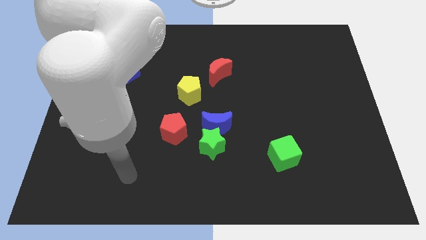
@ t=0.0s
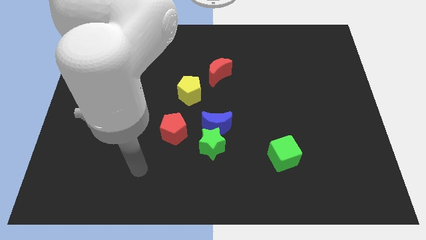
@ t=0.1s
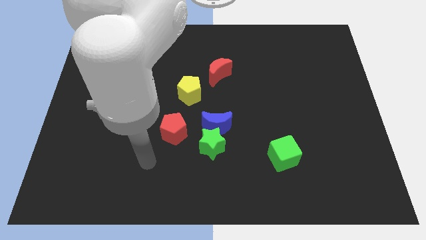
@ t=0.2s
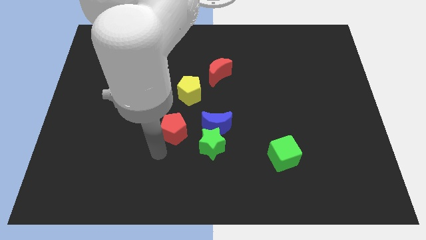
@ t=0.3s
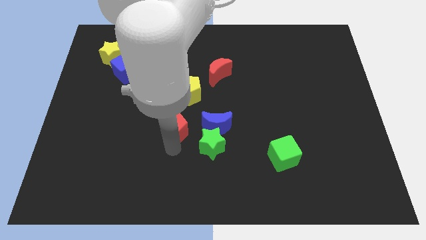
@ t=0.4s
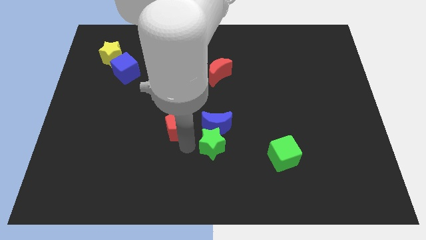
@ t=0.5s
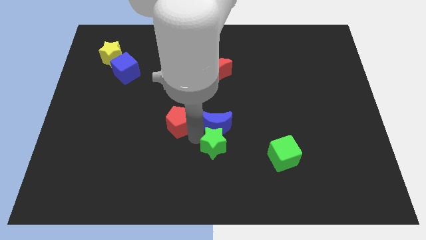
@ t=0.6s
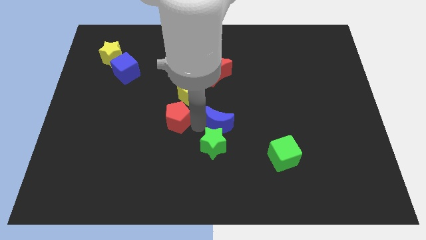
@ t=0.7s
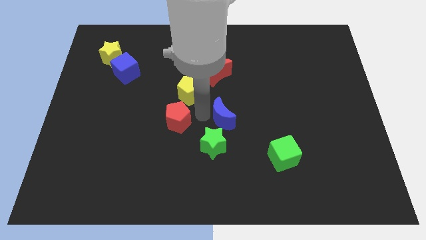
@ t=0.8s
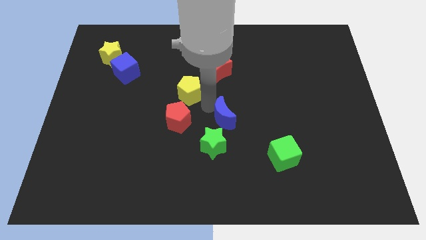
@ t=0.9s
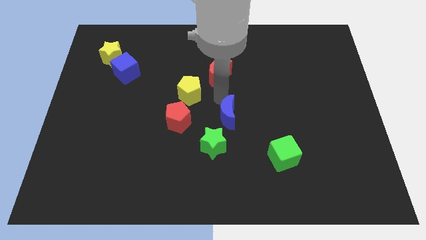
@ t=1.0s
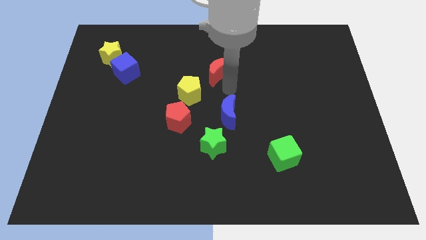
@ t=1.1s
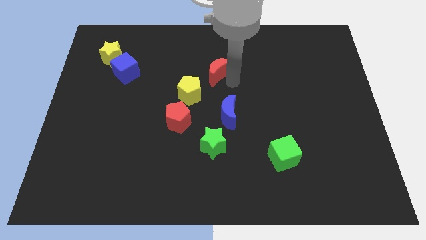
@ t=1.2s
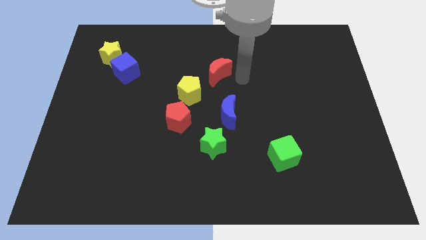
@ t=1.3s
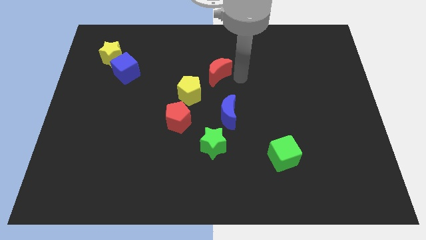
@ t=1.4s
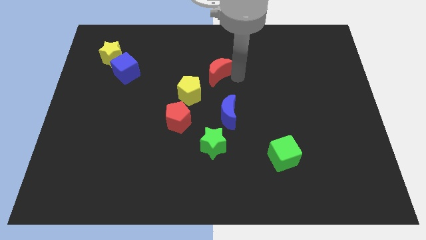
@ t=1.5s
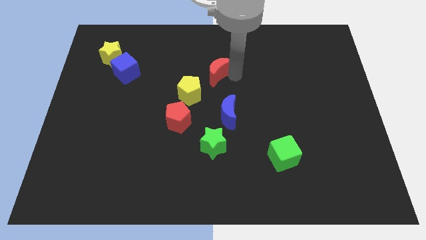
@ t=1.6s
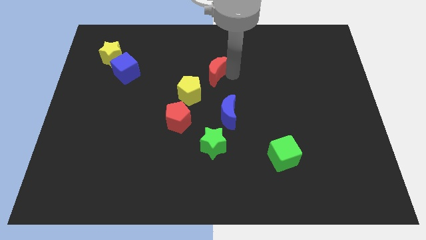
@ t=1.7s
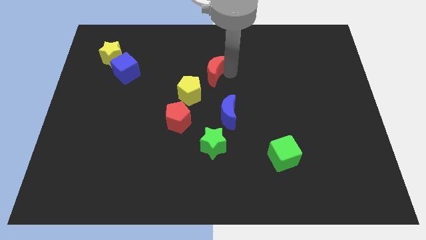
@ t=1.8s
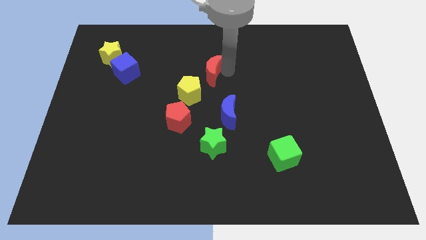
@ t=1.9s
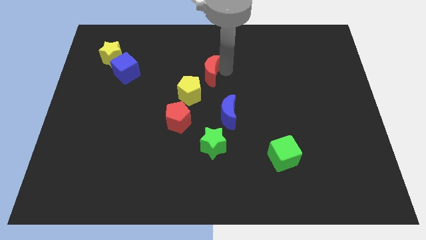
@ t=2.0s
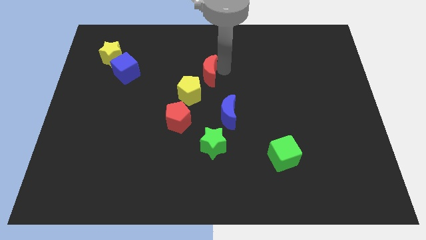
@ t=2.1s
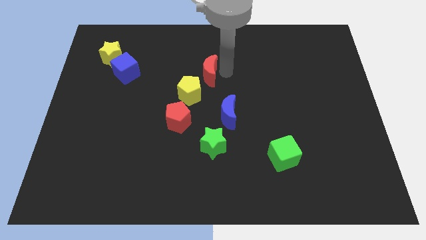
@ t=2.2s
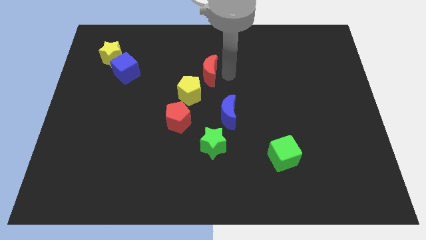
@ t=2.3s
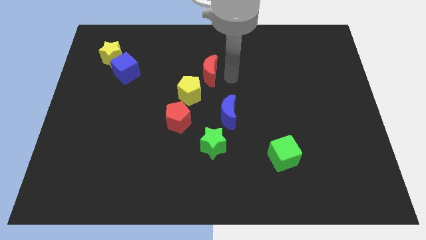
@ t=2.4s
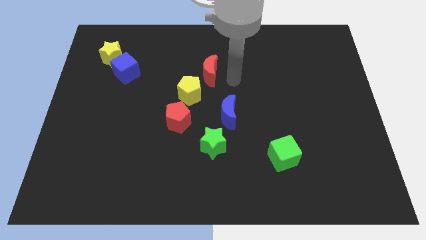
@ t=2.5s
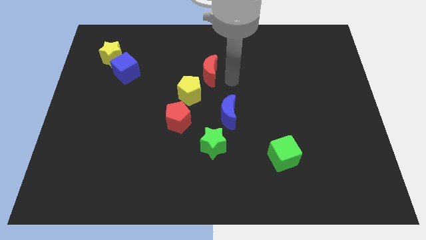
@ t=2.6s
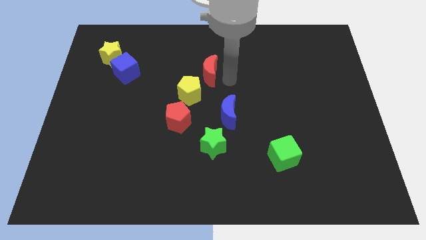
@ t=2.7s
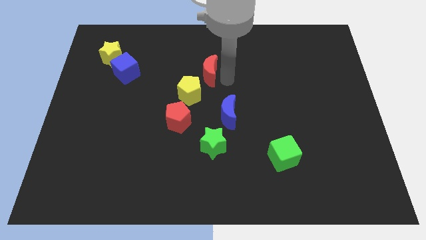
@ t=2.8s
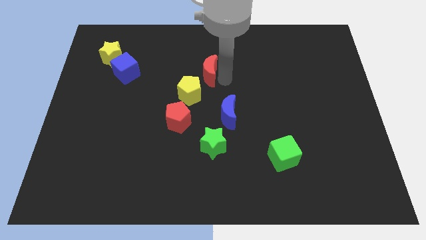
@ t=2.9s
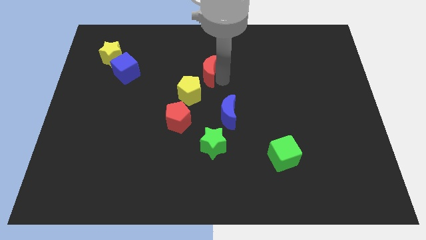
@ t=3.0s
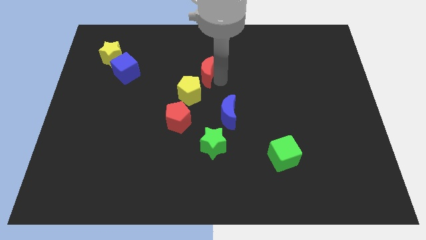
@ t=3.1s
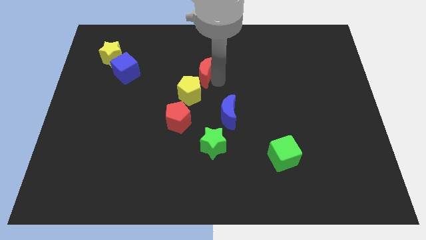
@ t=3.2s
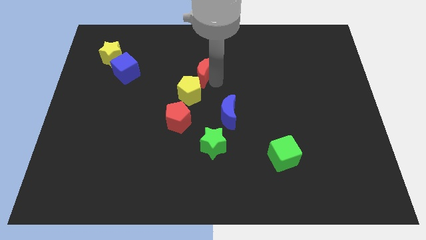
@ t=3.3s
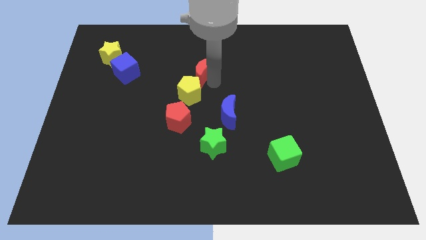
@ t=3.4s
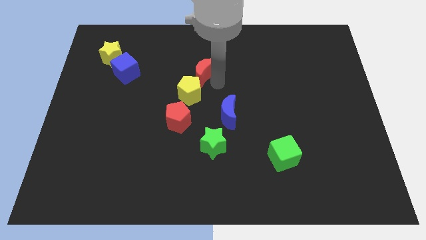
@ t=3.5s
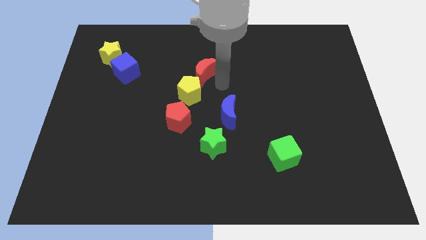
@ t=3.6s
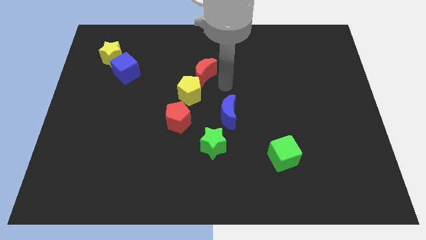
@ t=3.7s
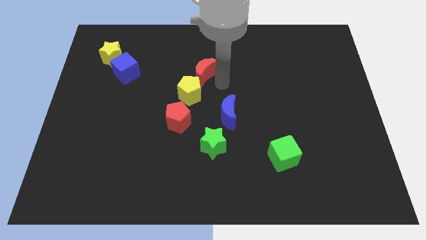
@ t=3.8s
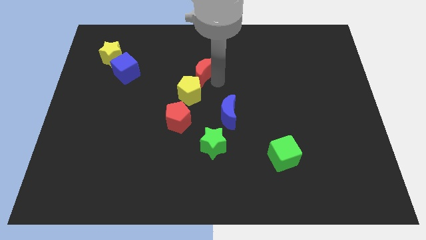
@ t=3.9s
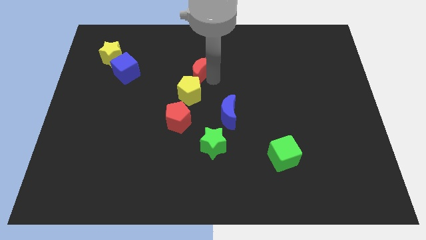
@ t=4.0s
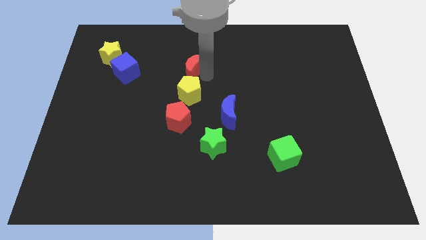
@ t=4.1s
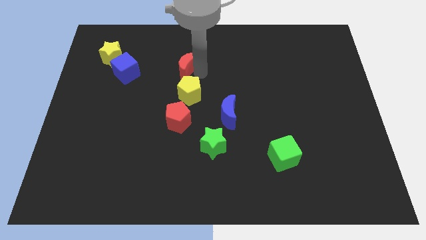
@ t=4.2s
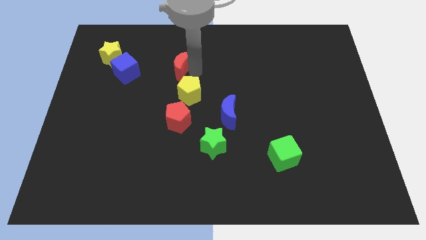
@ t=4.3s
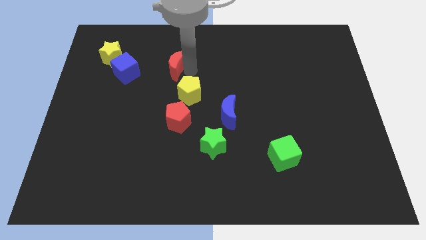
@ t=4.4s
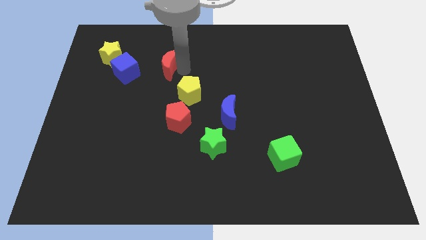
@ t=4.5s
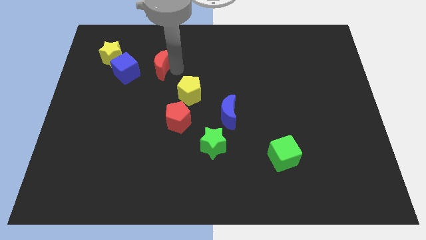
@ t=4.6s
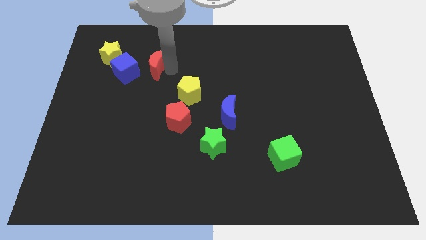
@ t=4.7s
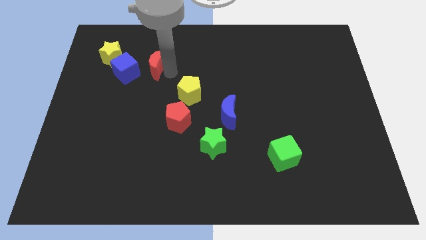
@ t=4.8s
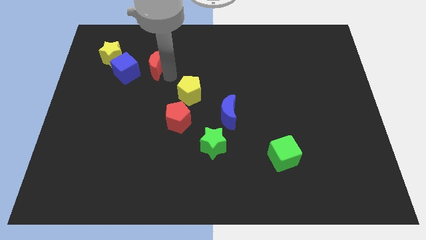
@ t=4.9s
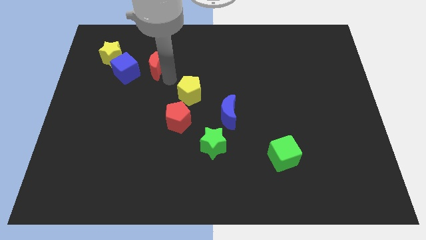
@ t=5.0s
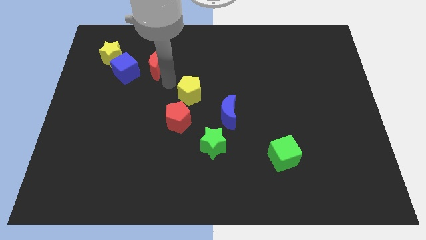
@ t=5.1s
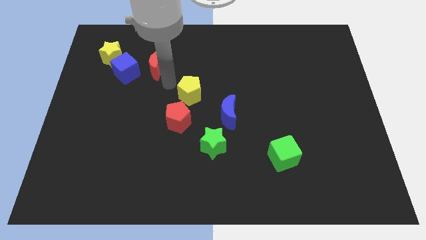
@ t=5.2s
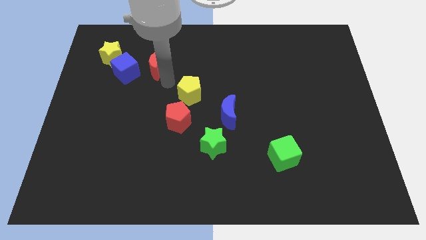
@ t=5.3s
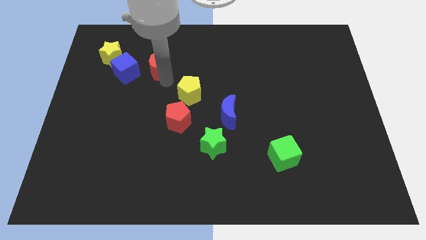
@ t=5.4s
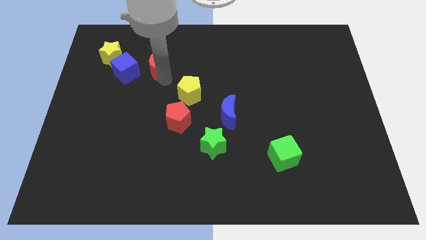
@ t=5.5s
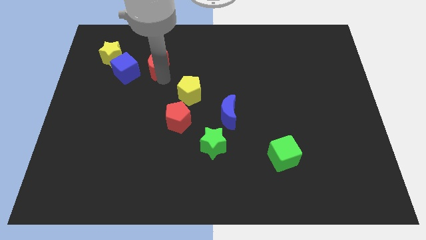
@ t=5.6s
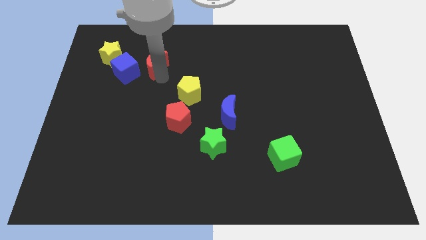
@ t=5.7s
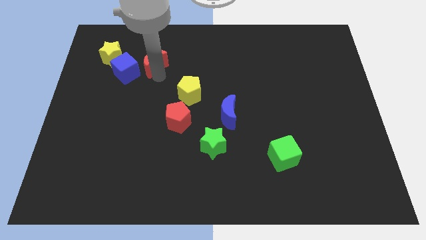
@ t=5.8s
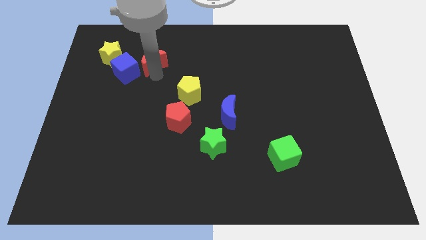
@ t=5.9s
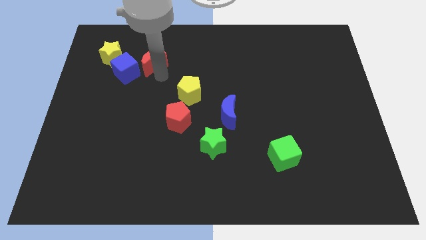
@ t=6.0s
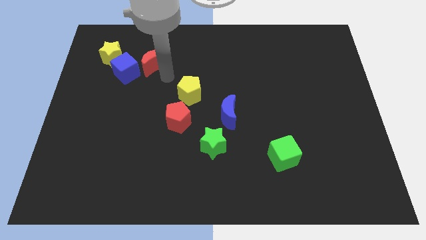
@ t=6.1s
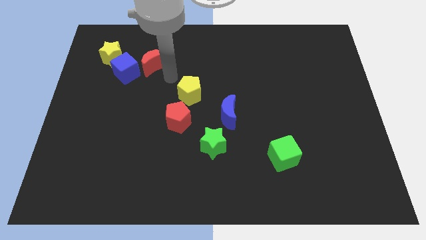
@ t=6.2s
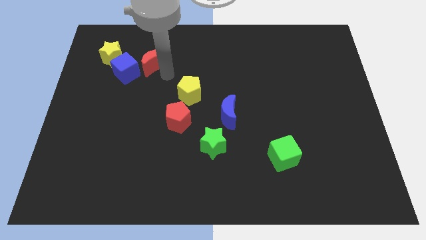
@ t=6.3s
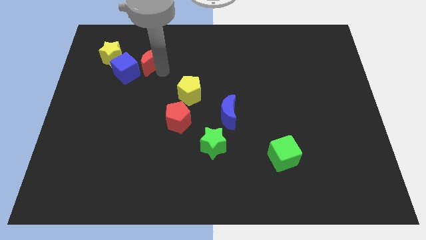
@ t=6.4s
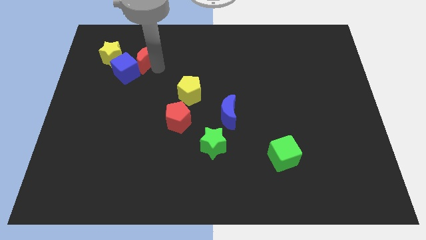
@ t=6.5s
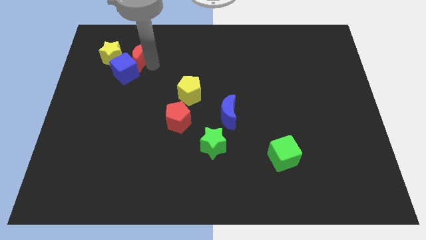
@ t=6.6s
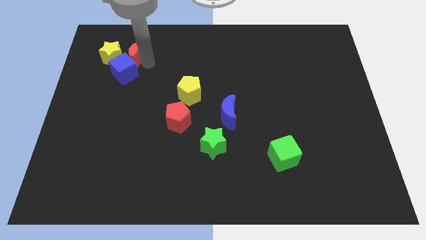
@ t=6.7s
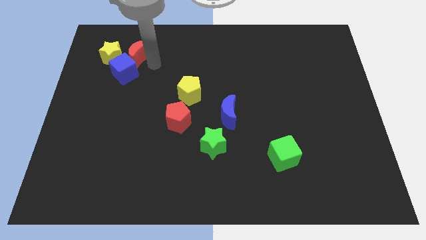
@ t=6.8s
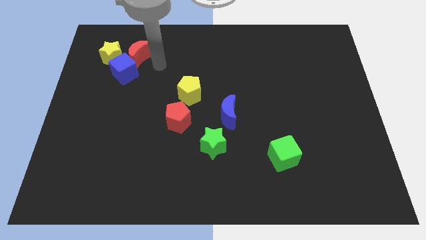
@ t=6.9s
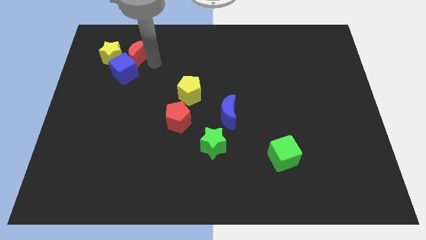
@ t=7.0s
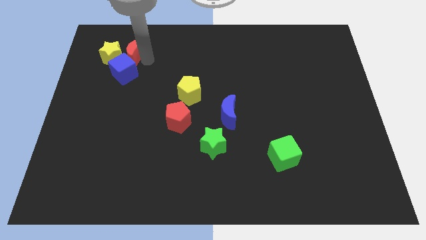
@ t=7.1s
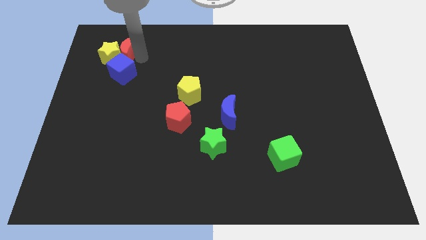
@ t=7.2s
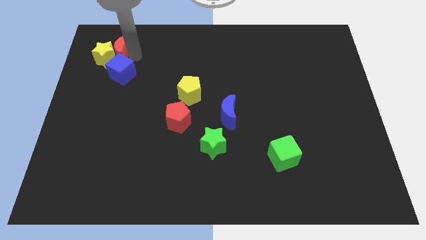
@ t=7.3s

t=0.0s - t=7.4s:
slide the red moon to the top left of the blue cube

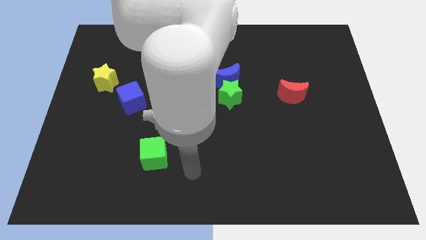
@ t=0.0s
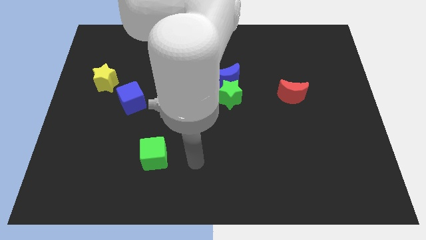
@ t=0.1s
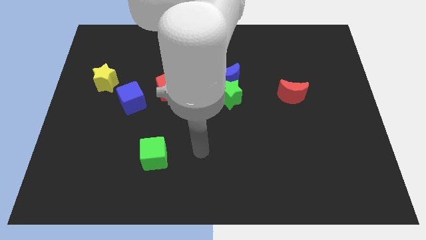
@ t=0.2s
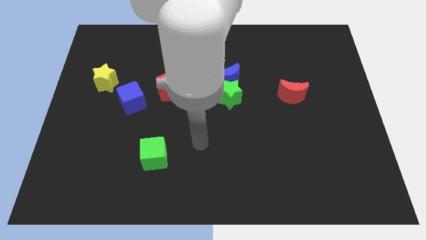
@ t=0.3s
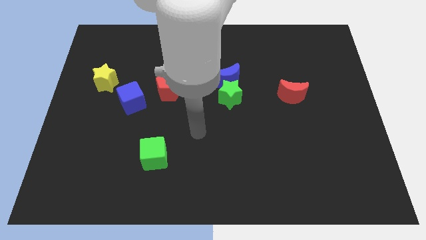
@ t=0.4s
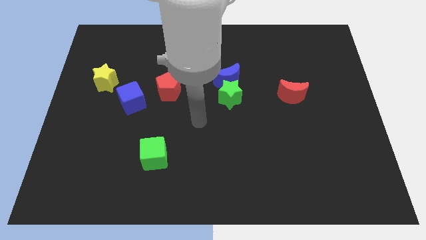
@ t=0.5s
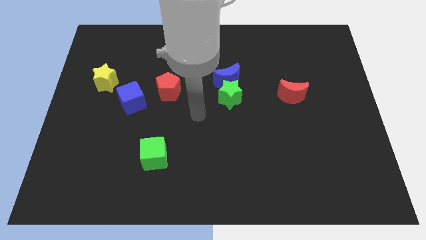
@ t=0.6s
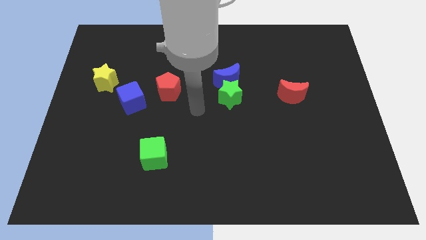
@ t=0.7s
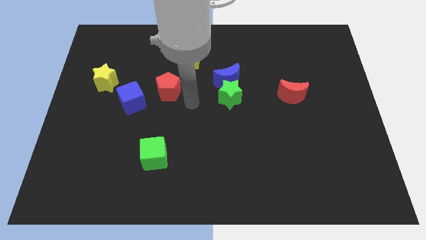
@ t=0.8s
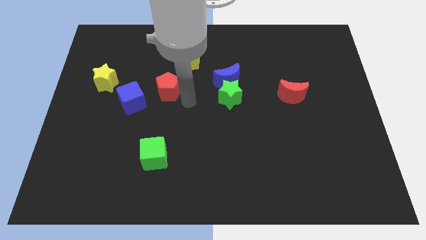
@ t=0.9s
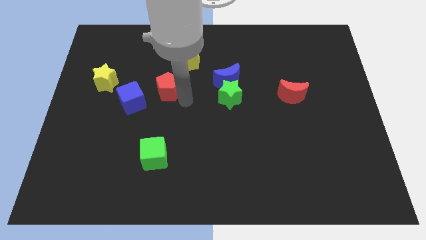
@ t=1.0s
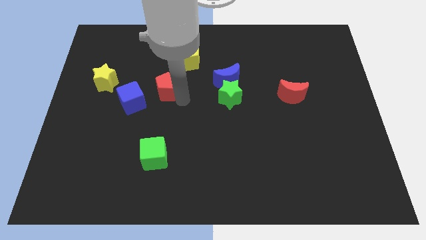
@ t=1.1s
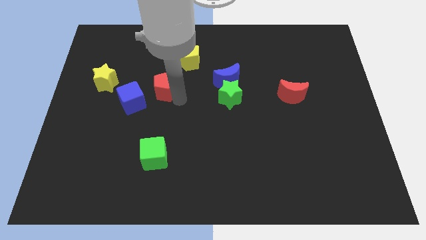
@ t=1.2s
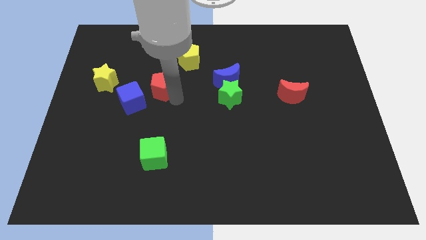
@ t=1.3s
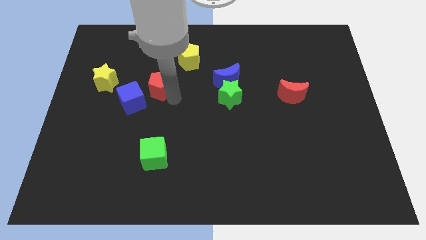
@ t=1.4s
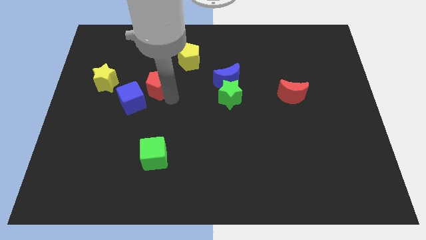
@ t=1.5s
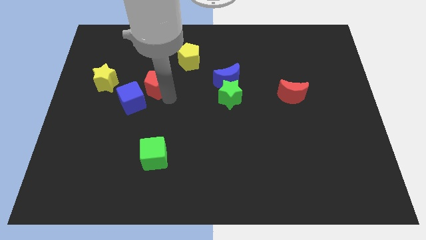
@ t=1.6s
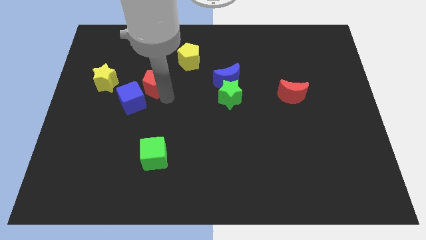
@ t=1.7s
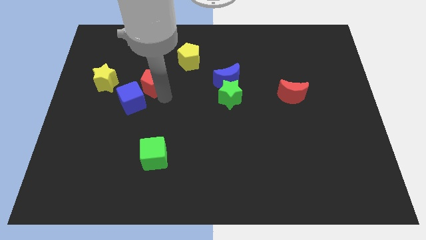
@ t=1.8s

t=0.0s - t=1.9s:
put the red pentagon above the blue cube
